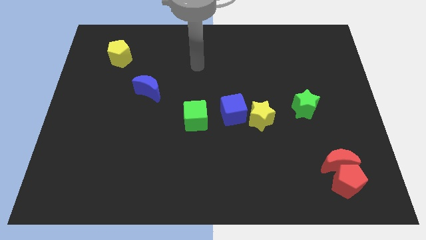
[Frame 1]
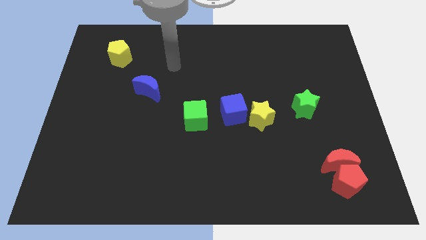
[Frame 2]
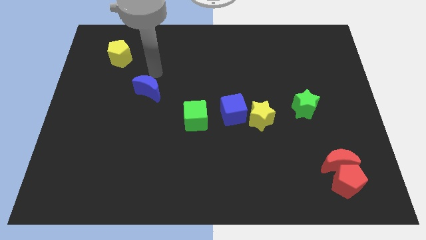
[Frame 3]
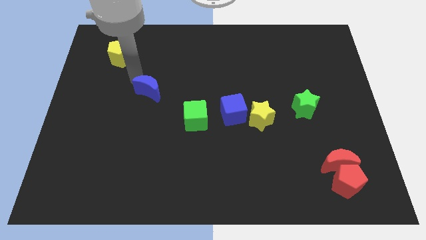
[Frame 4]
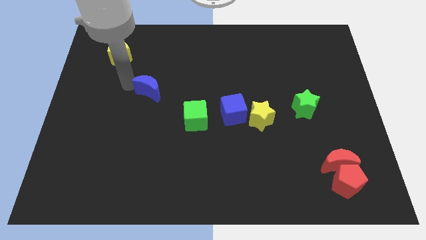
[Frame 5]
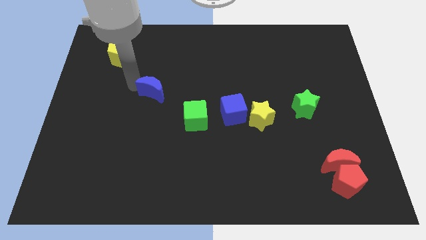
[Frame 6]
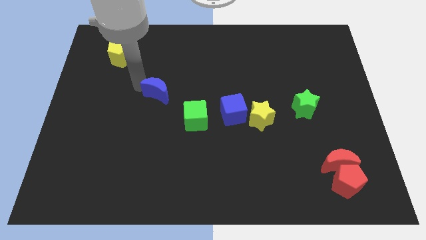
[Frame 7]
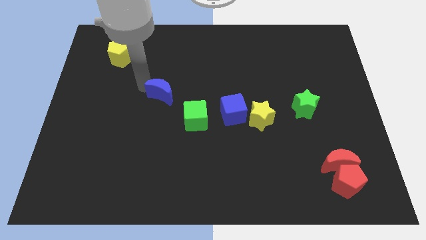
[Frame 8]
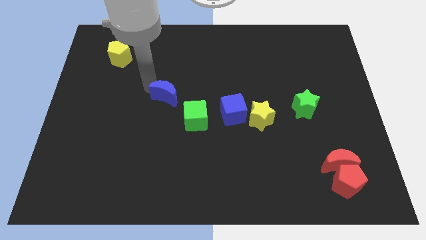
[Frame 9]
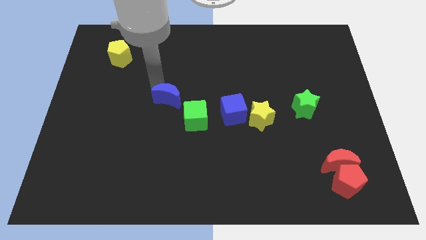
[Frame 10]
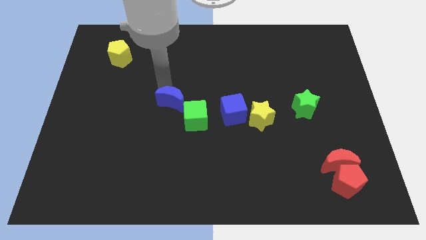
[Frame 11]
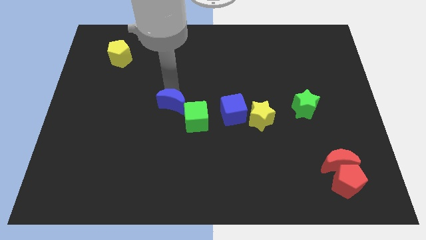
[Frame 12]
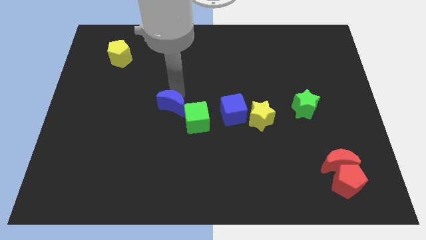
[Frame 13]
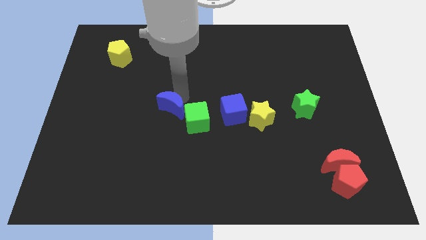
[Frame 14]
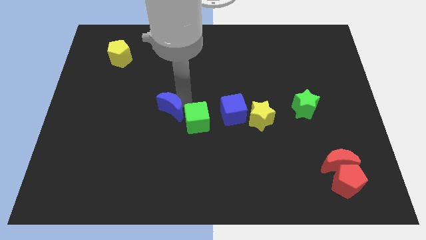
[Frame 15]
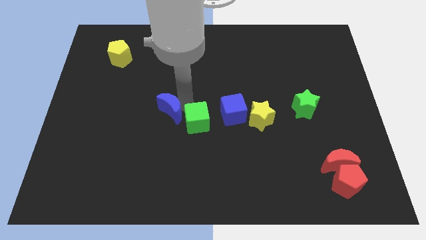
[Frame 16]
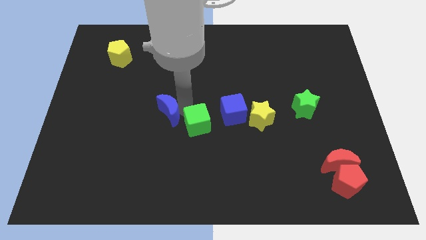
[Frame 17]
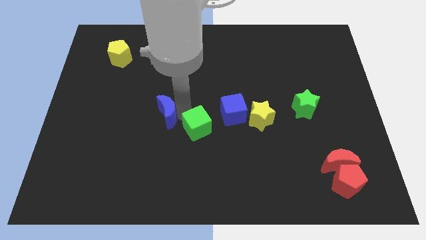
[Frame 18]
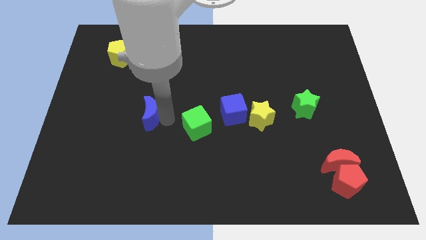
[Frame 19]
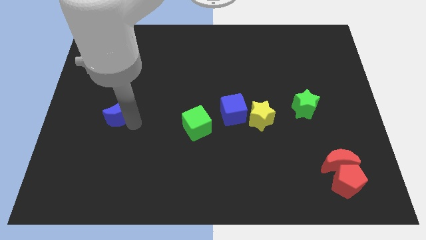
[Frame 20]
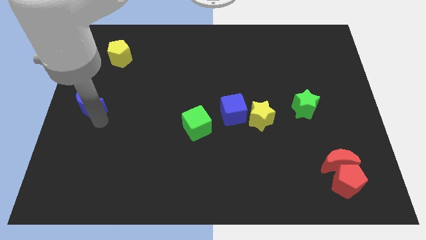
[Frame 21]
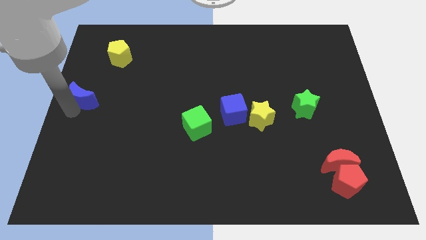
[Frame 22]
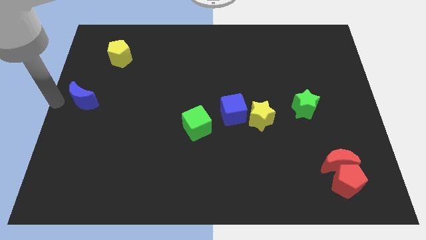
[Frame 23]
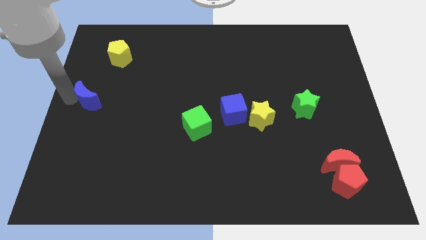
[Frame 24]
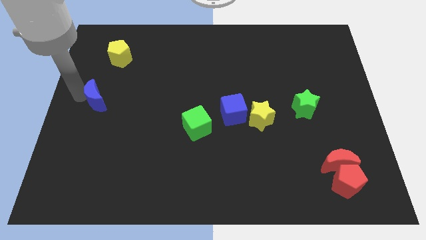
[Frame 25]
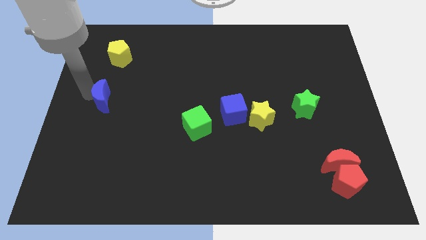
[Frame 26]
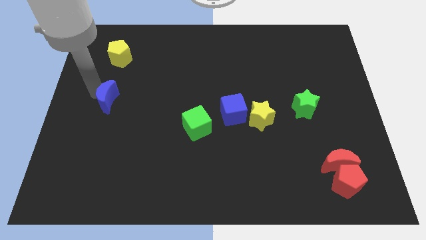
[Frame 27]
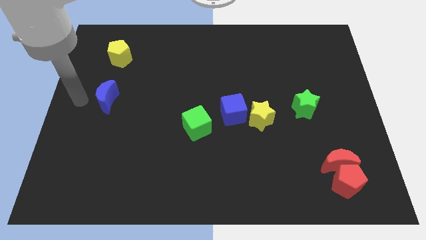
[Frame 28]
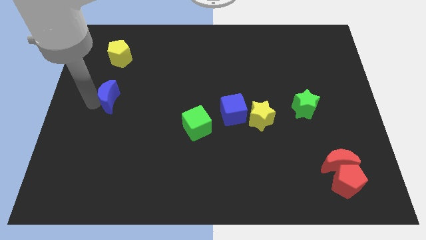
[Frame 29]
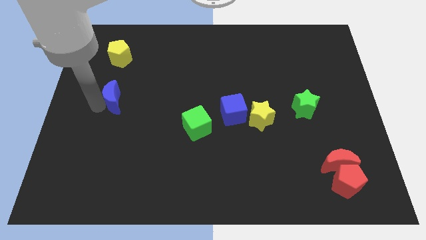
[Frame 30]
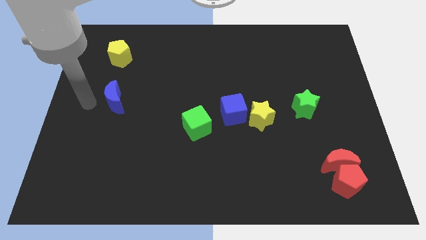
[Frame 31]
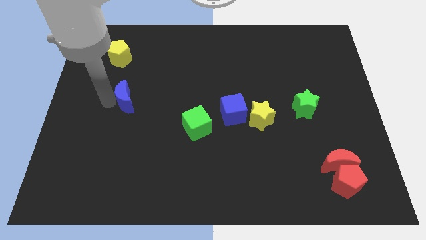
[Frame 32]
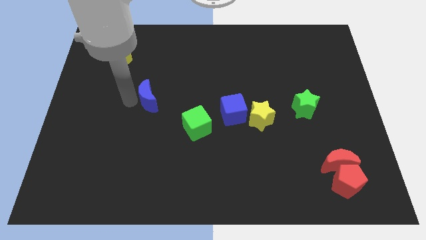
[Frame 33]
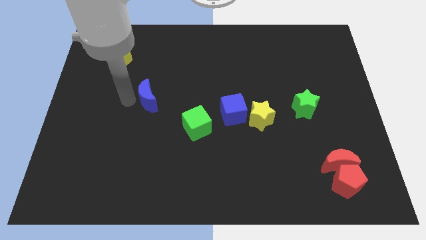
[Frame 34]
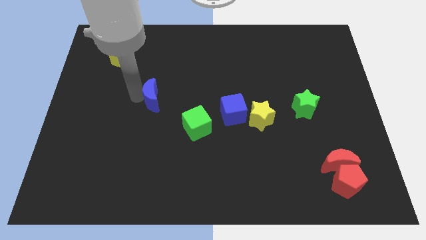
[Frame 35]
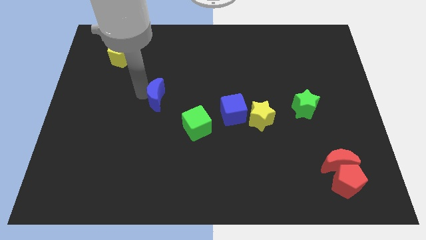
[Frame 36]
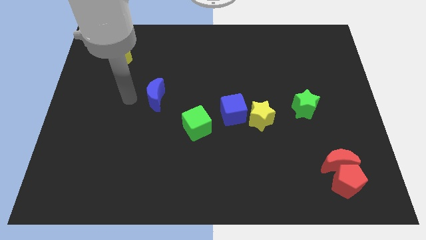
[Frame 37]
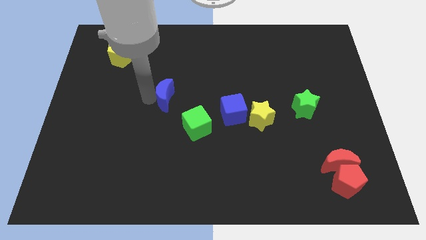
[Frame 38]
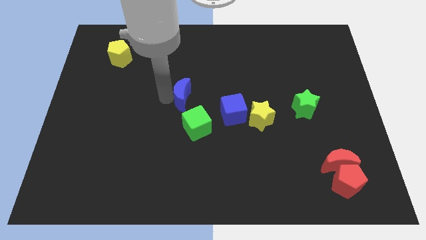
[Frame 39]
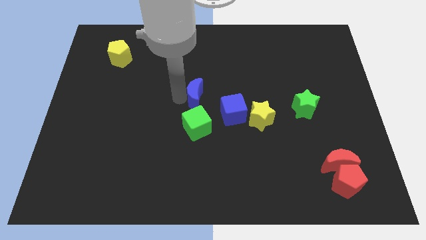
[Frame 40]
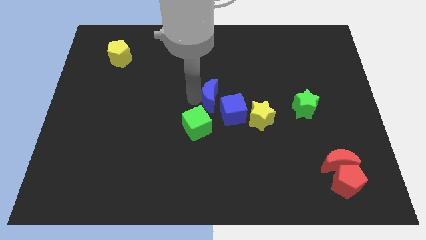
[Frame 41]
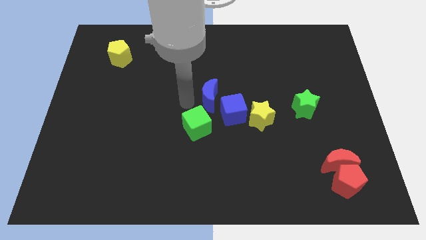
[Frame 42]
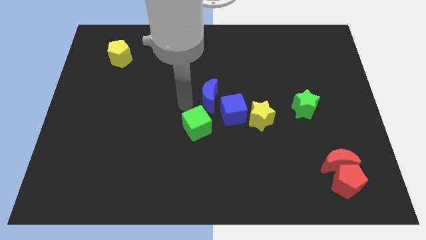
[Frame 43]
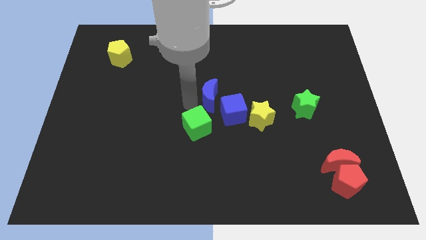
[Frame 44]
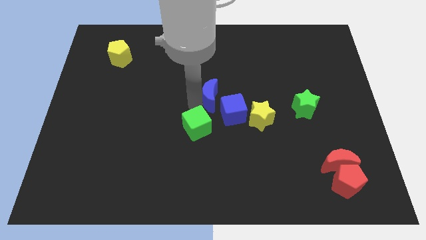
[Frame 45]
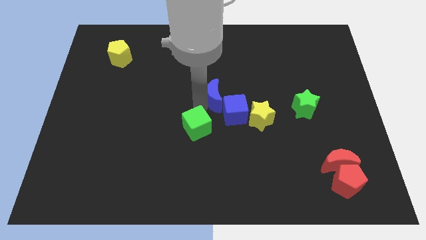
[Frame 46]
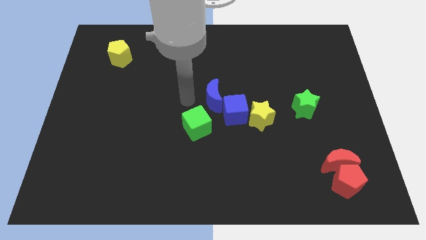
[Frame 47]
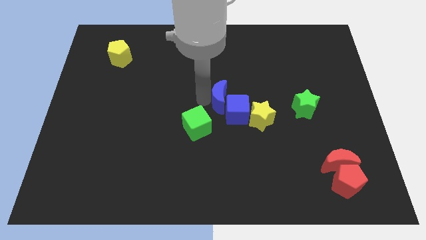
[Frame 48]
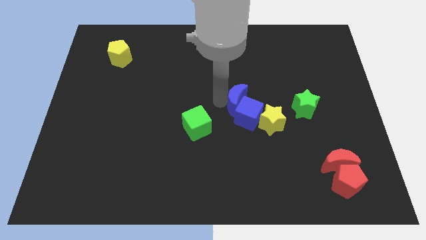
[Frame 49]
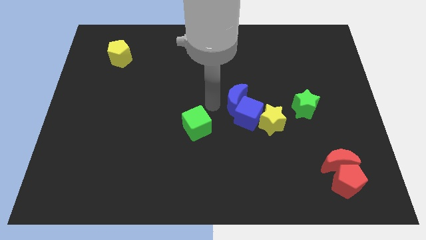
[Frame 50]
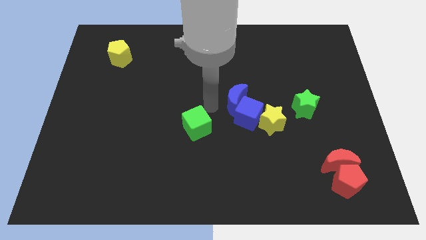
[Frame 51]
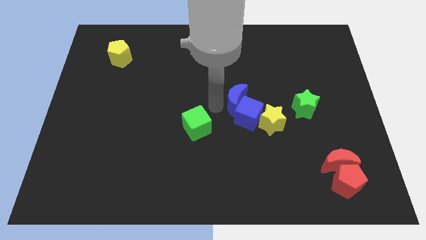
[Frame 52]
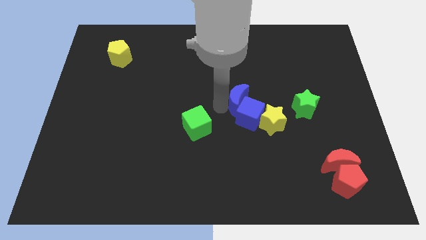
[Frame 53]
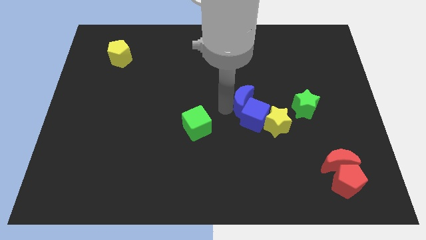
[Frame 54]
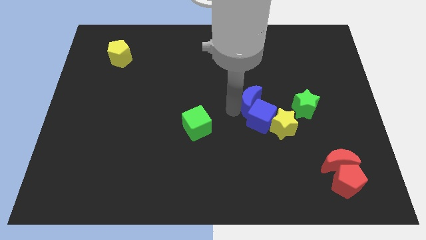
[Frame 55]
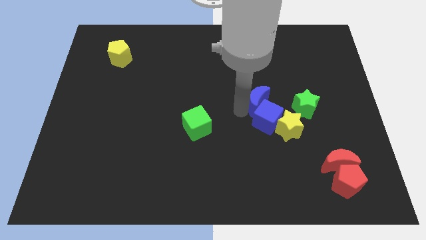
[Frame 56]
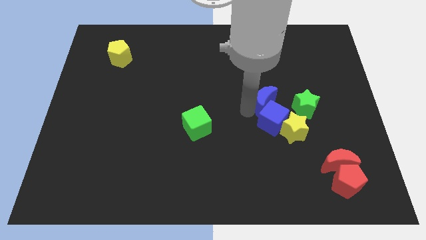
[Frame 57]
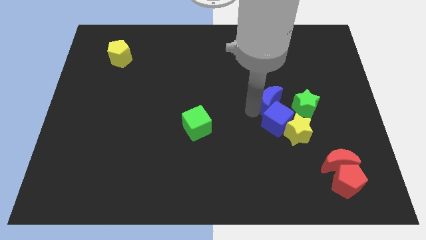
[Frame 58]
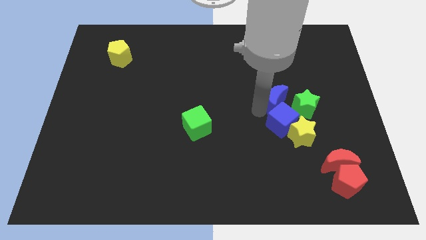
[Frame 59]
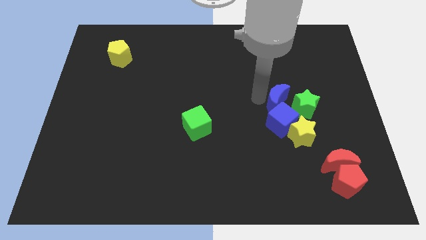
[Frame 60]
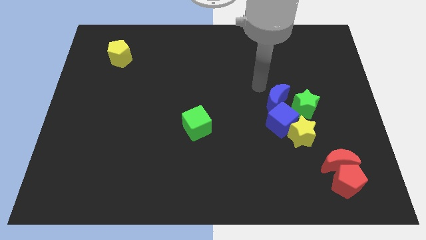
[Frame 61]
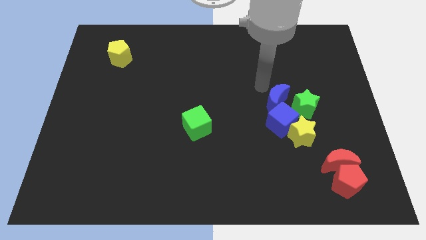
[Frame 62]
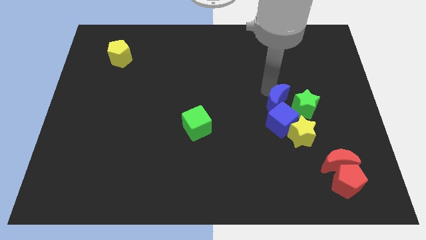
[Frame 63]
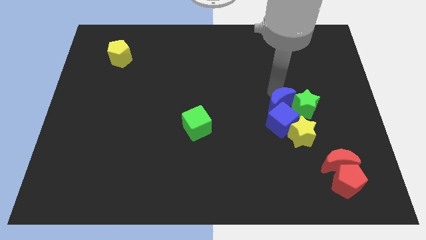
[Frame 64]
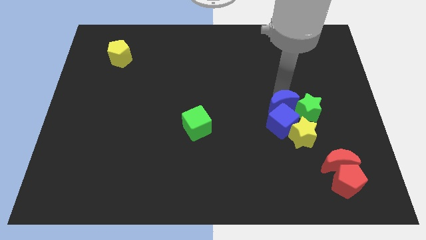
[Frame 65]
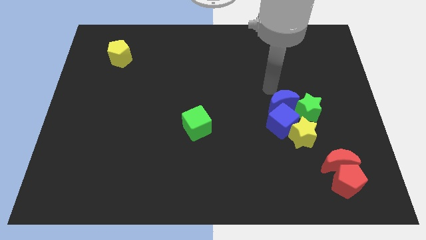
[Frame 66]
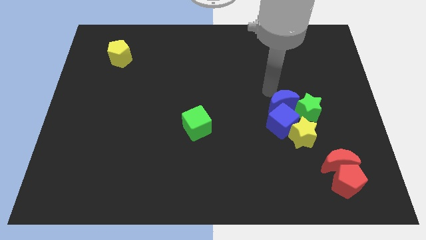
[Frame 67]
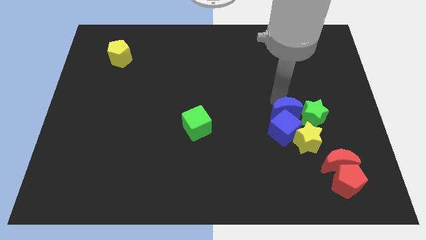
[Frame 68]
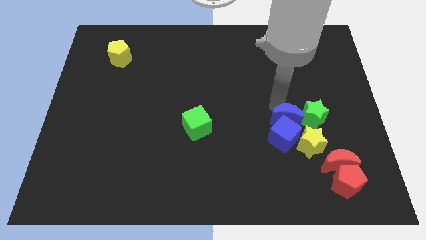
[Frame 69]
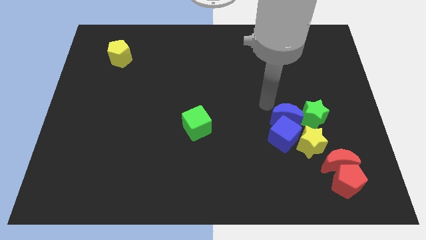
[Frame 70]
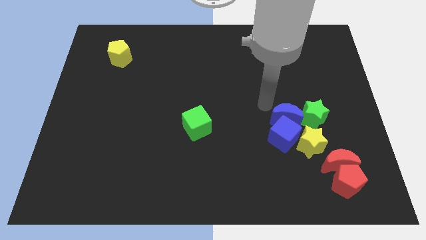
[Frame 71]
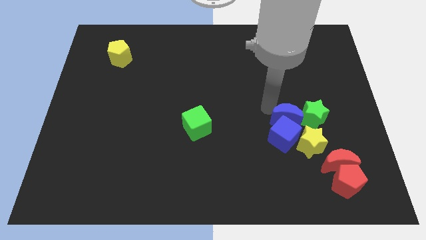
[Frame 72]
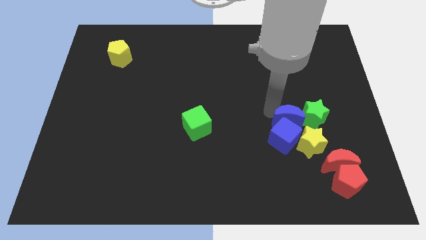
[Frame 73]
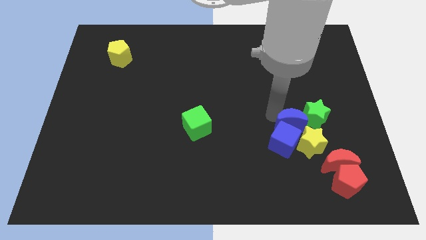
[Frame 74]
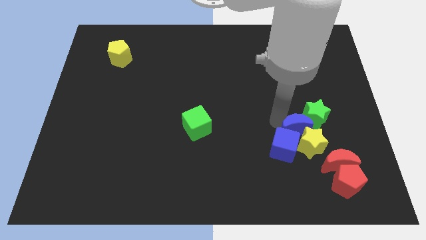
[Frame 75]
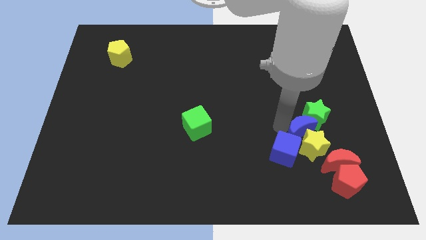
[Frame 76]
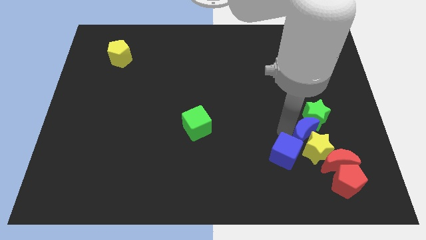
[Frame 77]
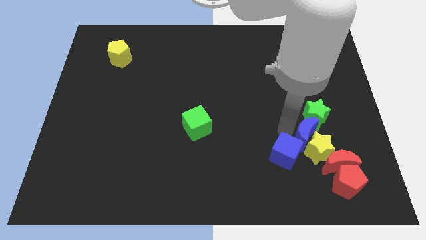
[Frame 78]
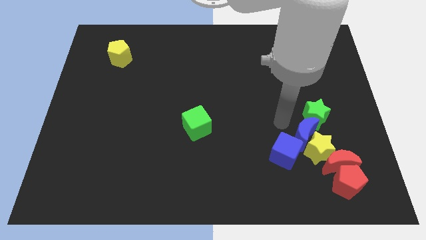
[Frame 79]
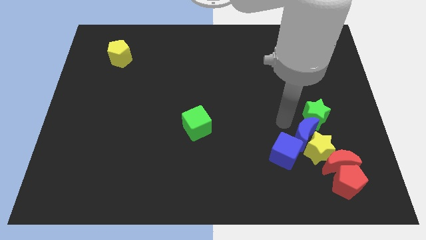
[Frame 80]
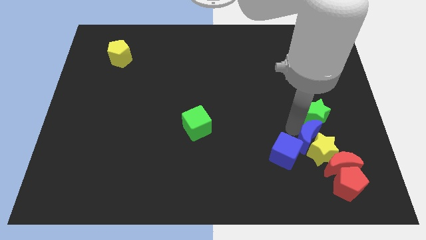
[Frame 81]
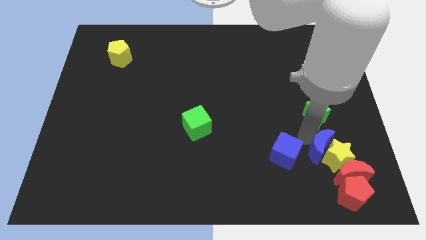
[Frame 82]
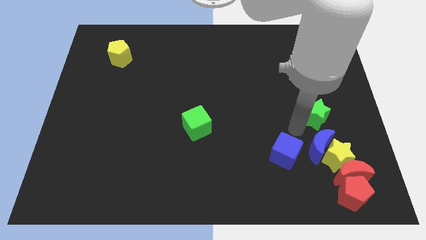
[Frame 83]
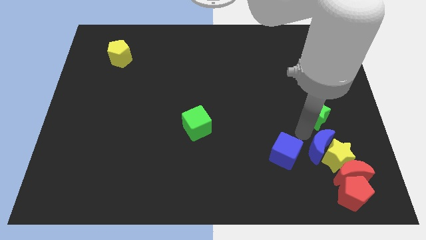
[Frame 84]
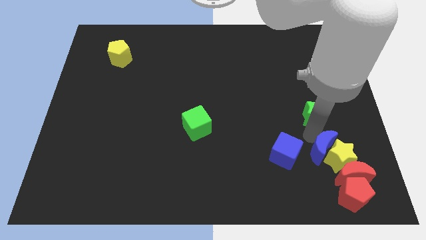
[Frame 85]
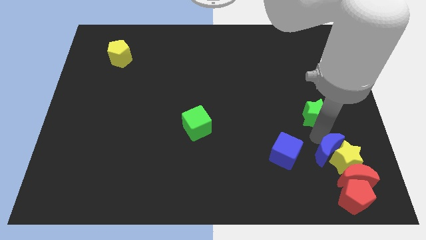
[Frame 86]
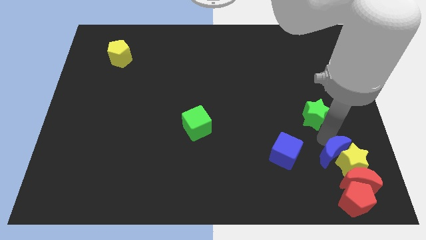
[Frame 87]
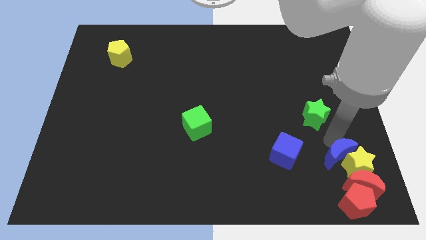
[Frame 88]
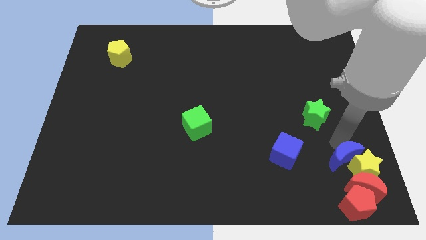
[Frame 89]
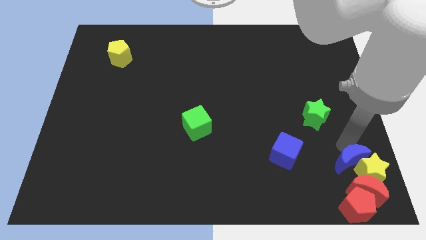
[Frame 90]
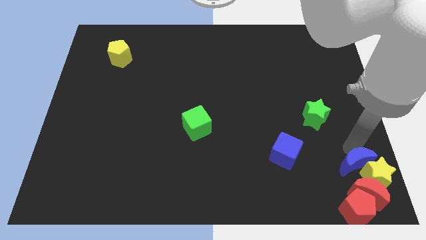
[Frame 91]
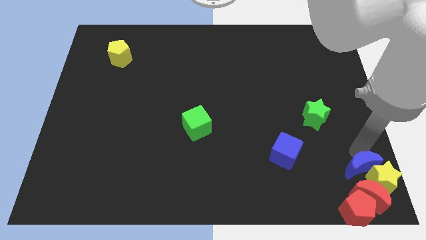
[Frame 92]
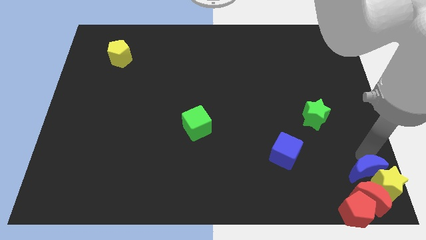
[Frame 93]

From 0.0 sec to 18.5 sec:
push the blue moon next to the red moon
